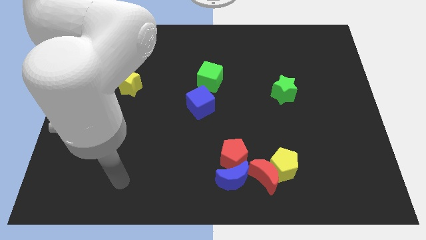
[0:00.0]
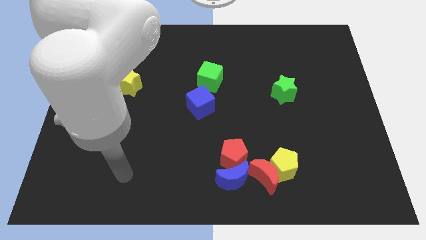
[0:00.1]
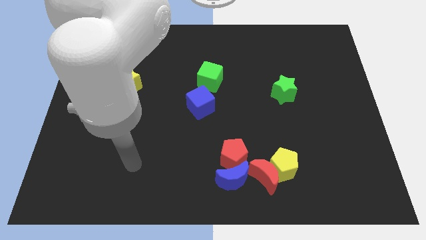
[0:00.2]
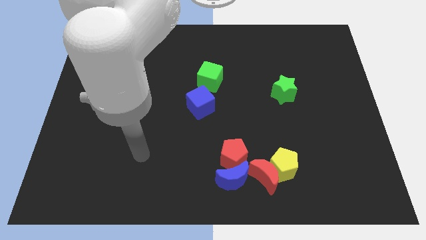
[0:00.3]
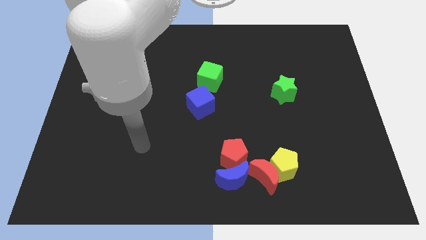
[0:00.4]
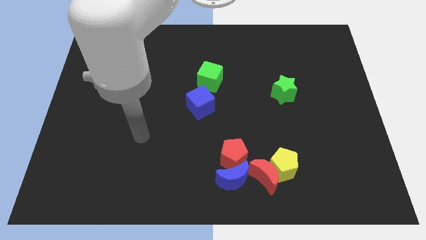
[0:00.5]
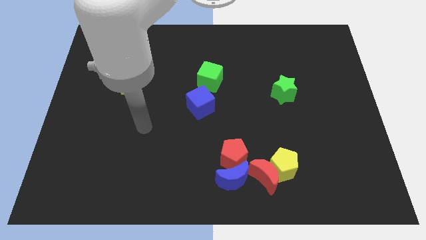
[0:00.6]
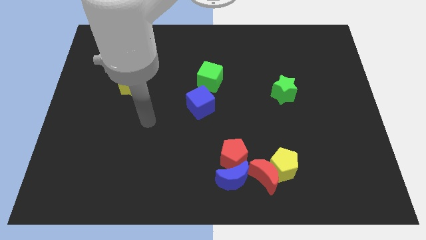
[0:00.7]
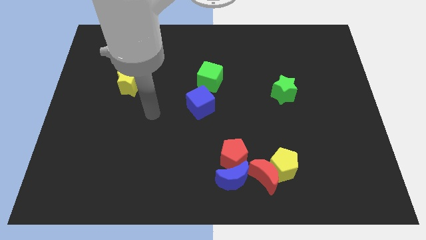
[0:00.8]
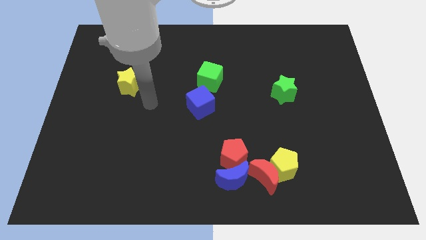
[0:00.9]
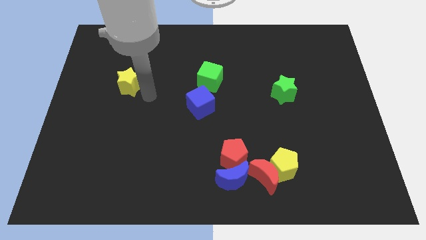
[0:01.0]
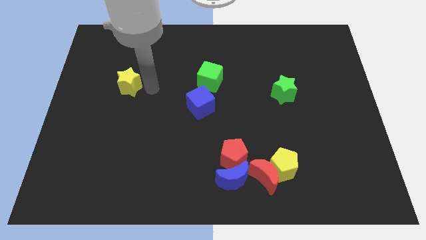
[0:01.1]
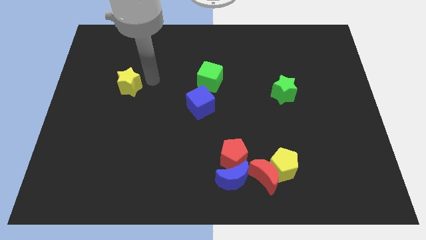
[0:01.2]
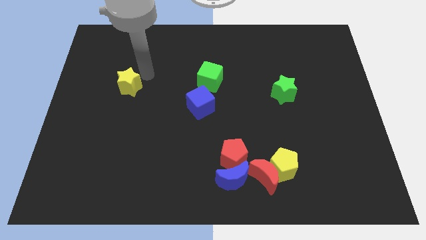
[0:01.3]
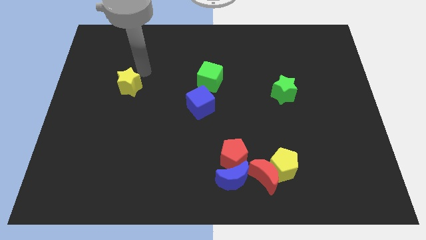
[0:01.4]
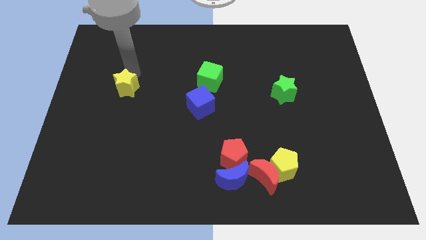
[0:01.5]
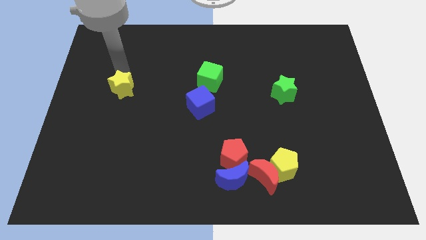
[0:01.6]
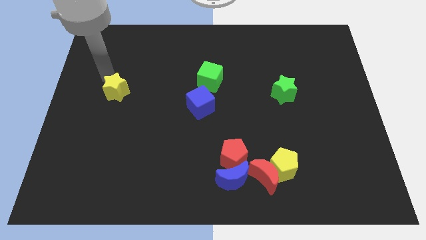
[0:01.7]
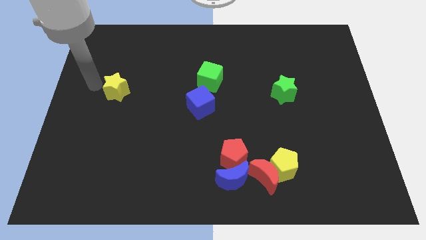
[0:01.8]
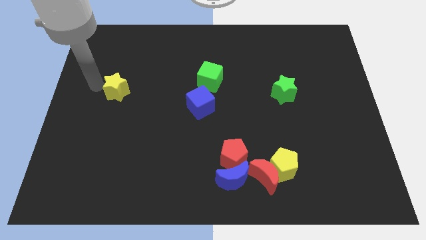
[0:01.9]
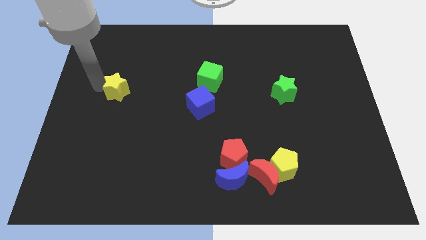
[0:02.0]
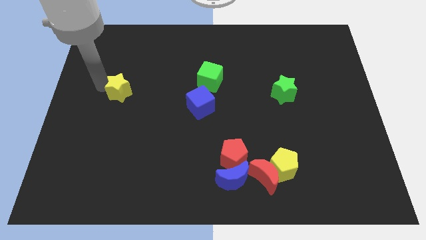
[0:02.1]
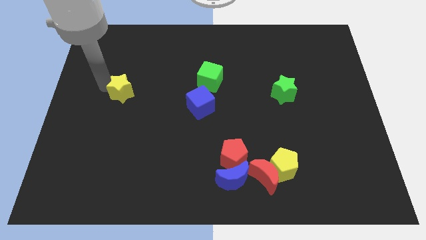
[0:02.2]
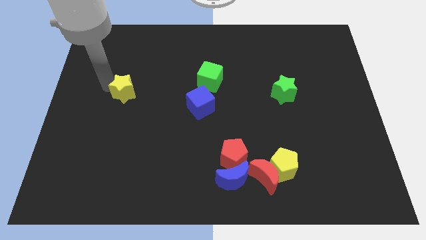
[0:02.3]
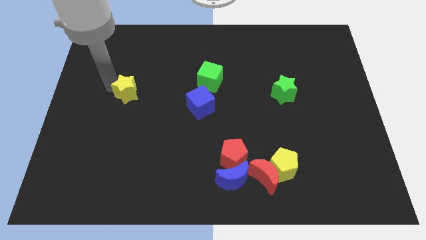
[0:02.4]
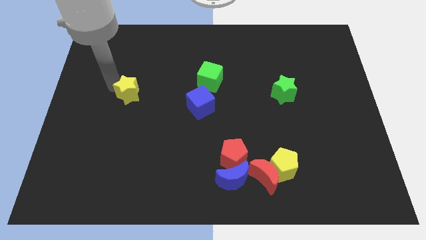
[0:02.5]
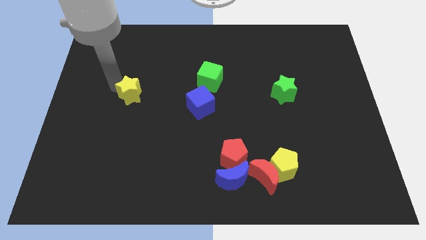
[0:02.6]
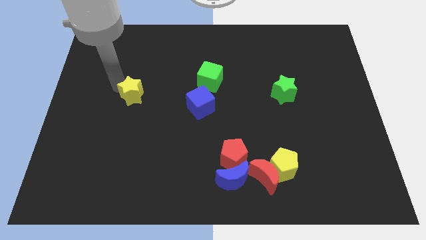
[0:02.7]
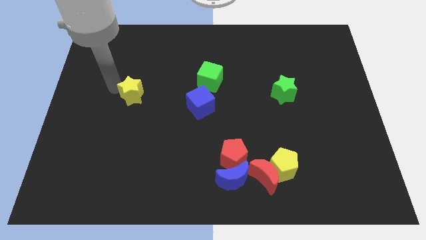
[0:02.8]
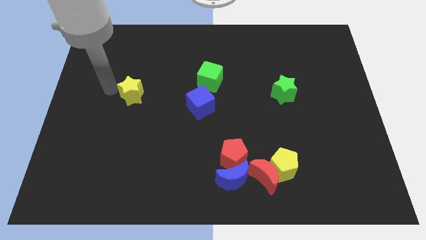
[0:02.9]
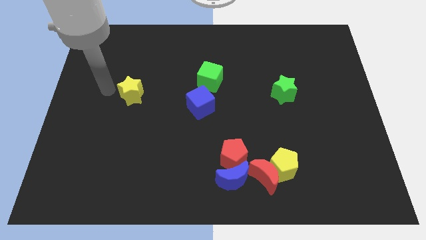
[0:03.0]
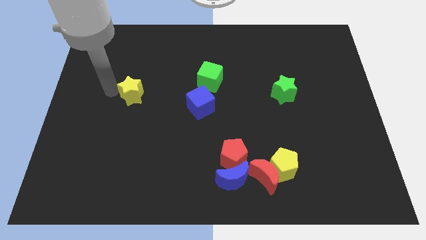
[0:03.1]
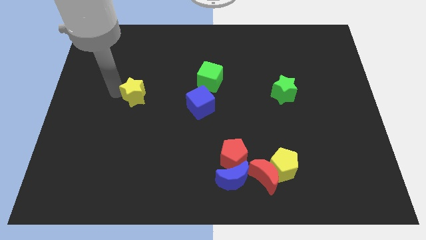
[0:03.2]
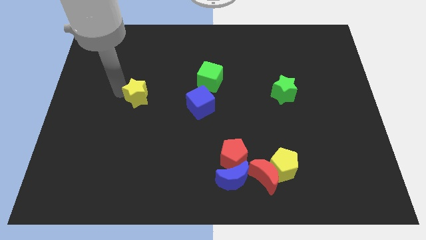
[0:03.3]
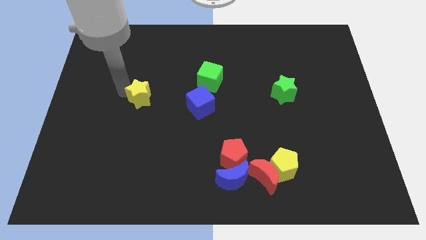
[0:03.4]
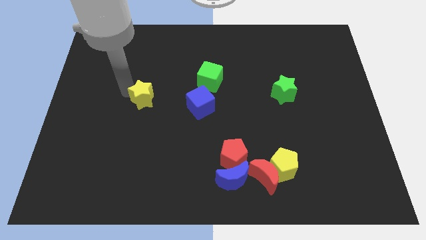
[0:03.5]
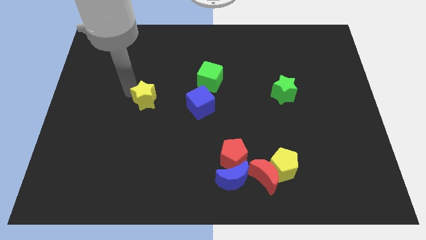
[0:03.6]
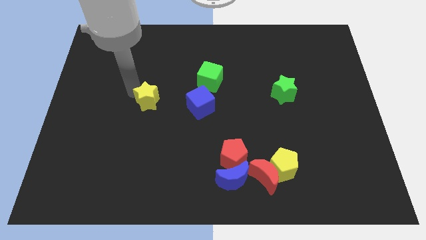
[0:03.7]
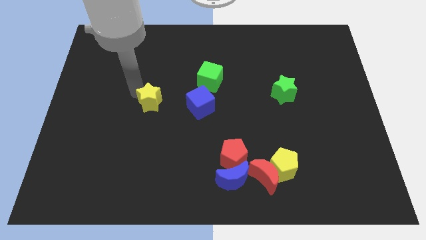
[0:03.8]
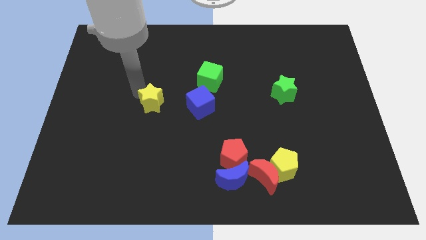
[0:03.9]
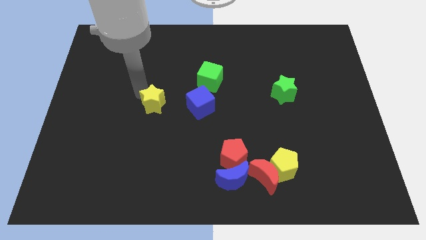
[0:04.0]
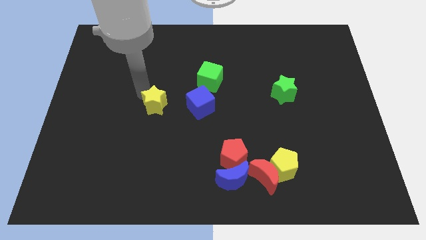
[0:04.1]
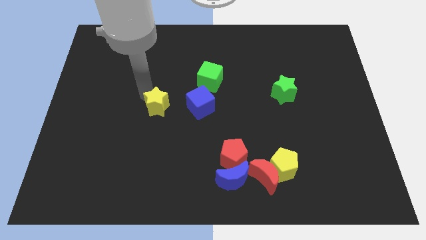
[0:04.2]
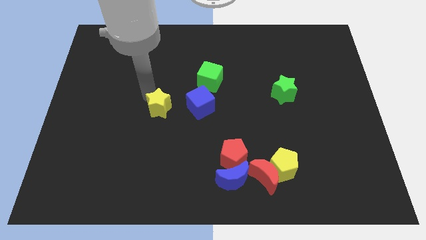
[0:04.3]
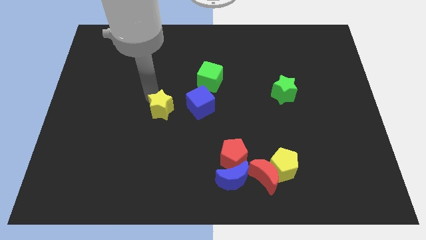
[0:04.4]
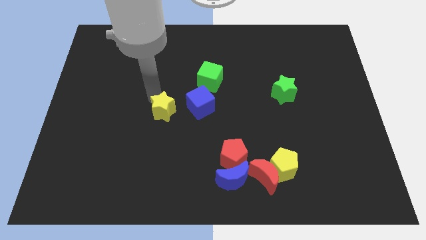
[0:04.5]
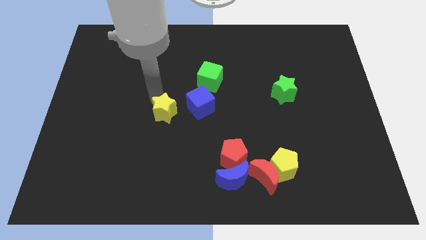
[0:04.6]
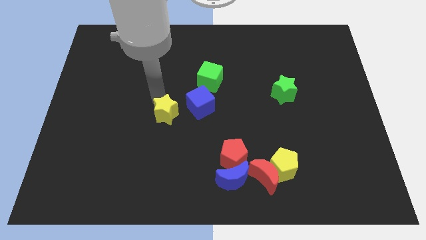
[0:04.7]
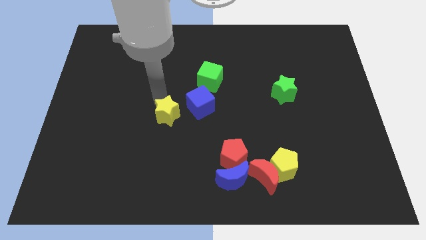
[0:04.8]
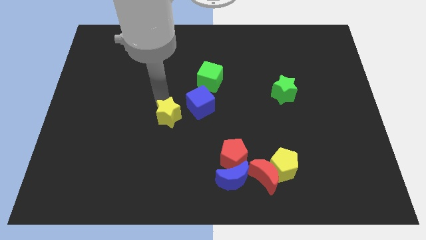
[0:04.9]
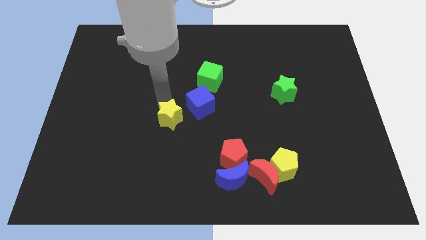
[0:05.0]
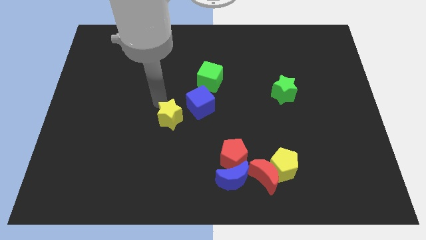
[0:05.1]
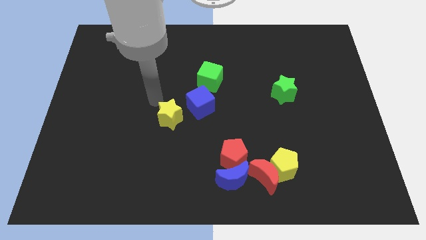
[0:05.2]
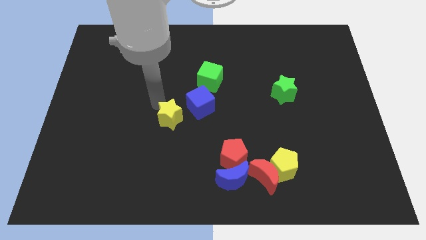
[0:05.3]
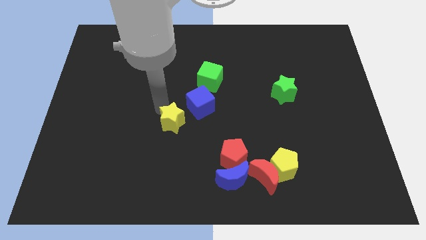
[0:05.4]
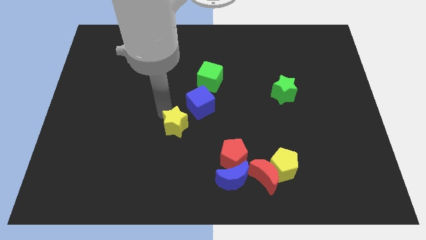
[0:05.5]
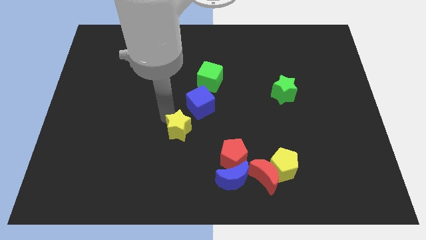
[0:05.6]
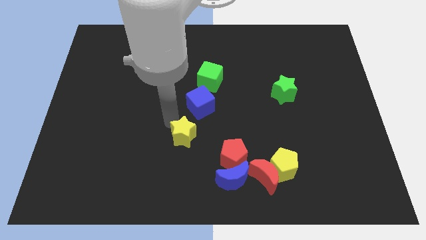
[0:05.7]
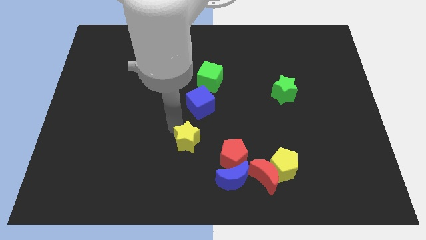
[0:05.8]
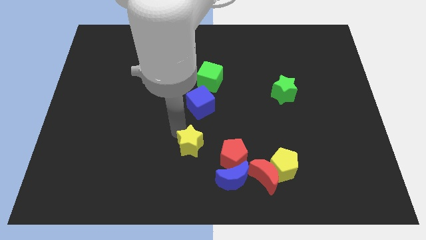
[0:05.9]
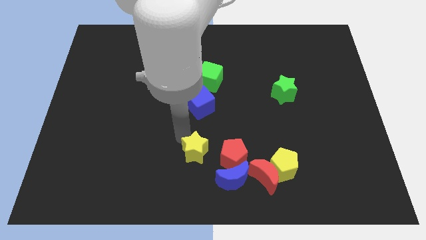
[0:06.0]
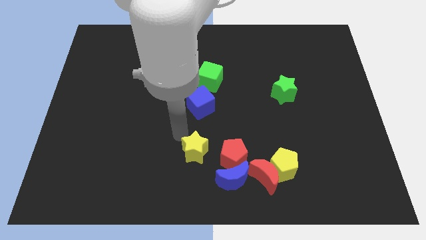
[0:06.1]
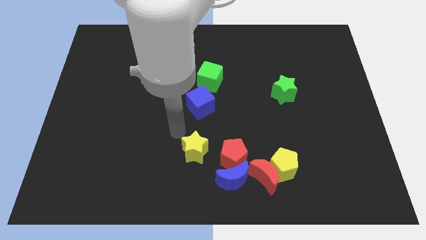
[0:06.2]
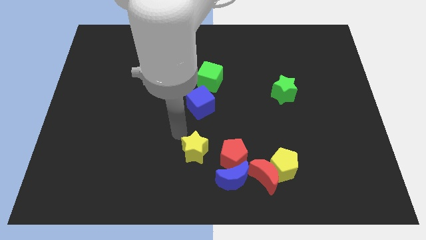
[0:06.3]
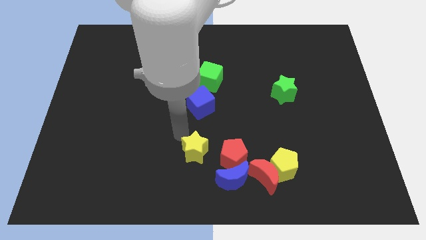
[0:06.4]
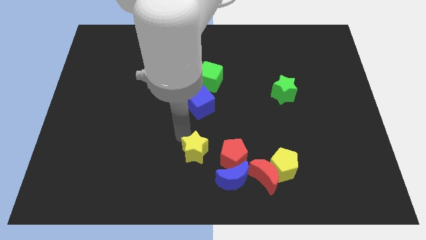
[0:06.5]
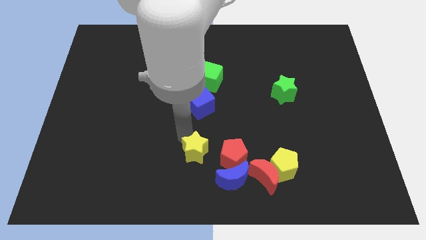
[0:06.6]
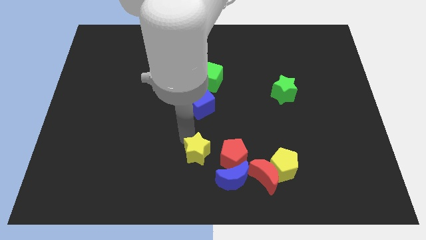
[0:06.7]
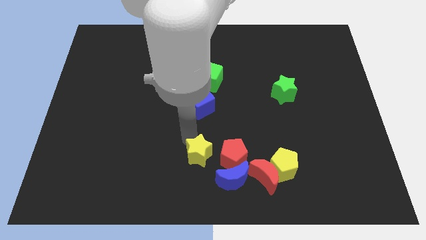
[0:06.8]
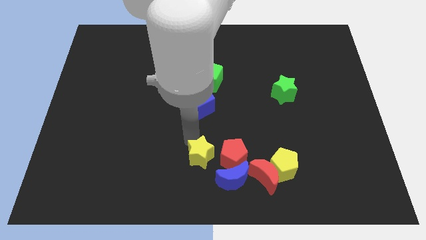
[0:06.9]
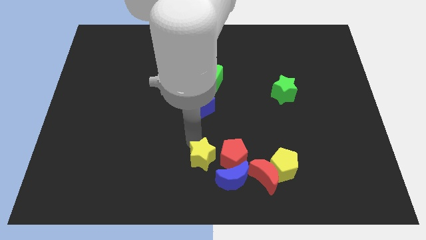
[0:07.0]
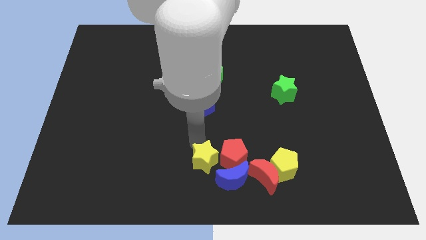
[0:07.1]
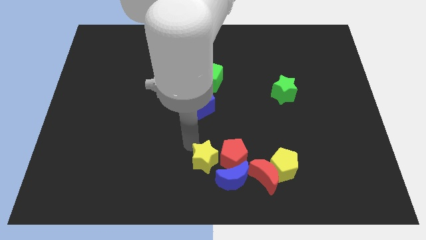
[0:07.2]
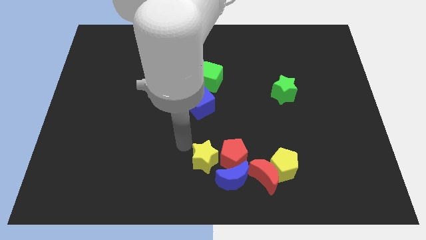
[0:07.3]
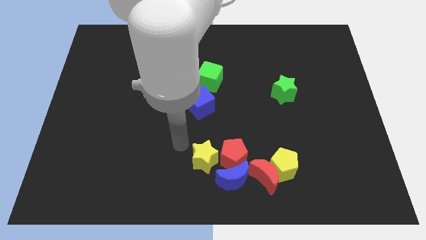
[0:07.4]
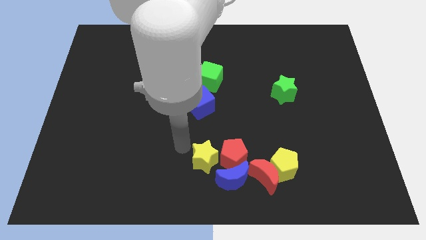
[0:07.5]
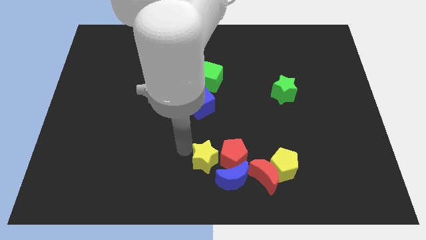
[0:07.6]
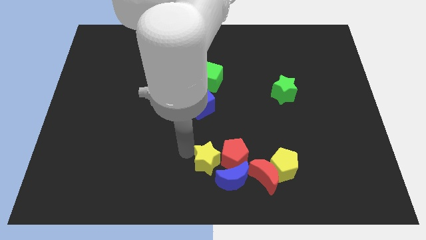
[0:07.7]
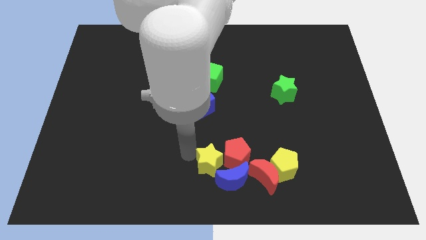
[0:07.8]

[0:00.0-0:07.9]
slide the yellow star towards the blue moon
